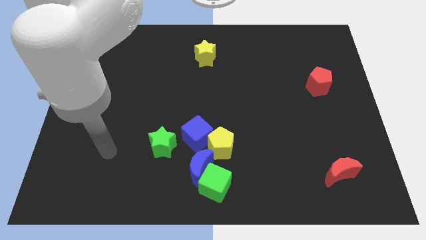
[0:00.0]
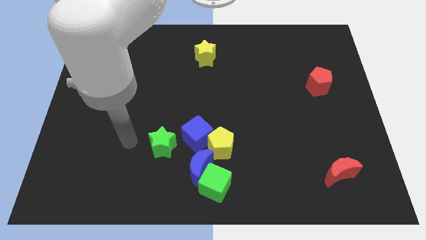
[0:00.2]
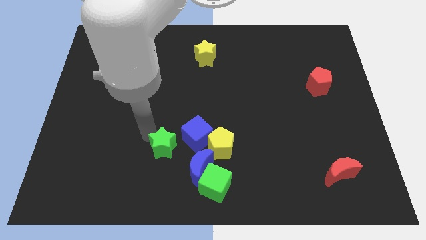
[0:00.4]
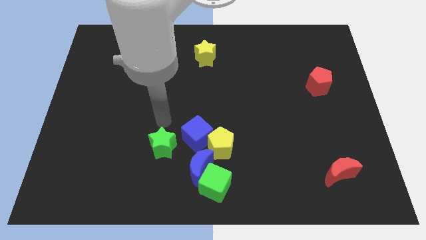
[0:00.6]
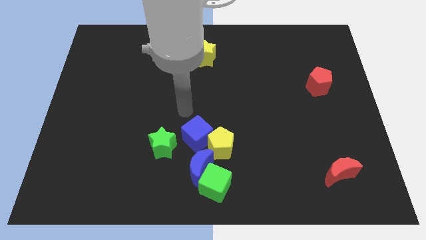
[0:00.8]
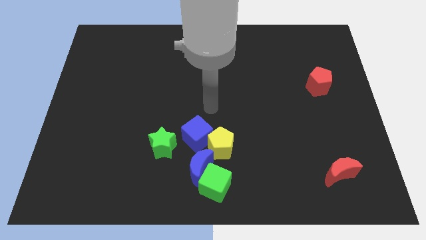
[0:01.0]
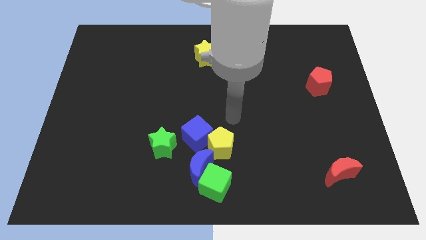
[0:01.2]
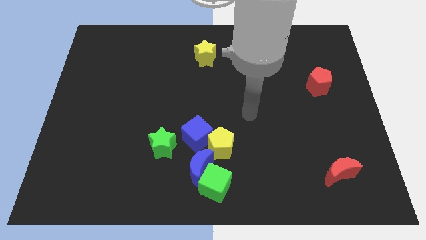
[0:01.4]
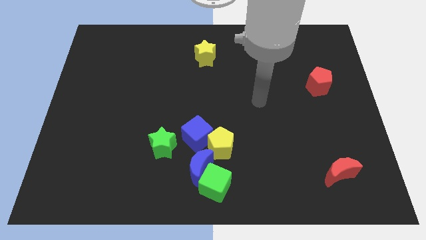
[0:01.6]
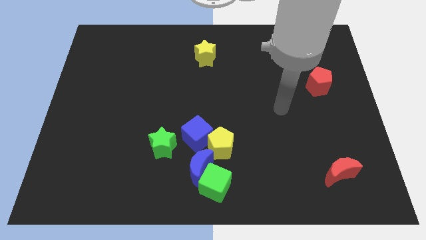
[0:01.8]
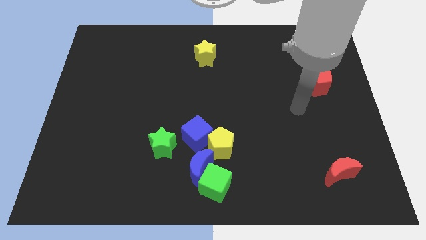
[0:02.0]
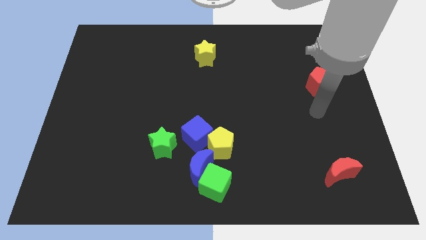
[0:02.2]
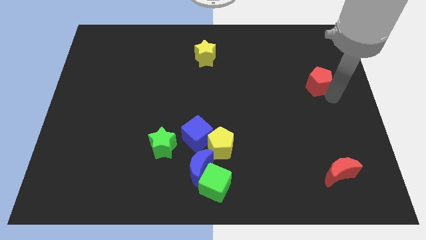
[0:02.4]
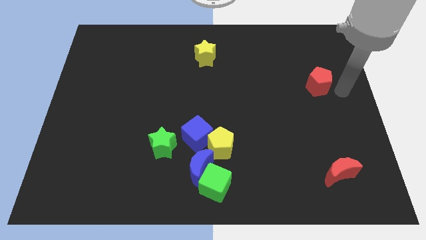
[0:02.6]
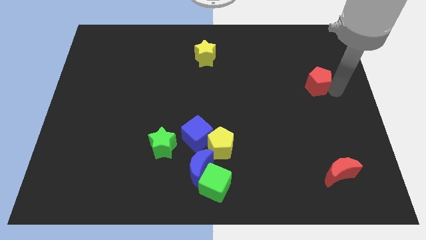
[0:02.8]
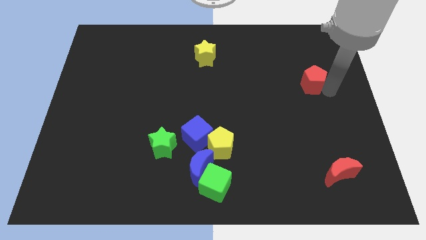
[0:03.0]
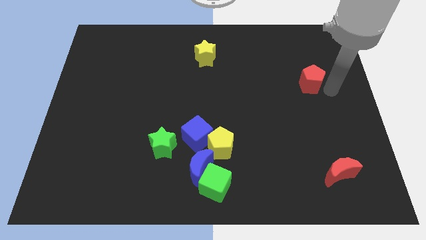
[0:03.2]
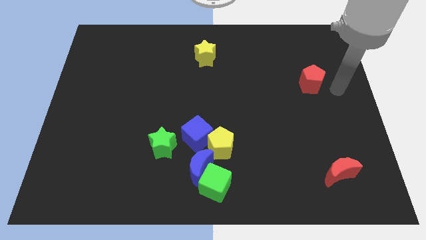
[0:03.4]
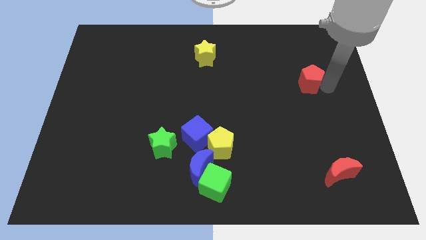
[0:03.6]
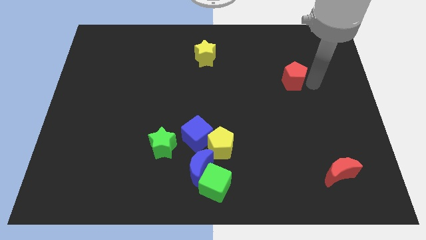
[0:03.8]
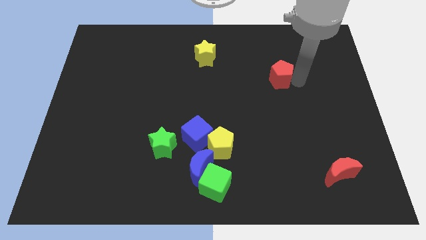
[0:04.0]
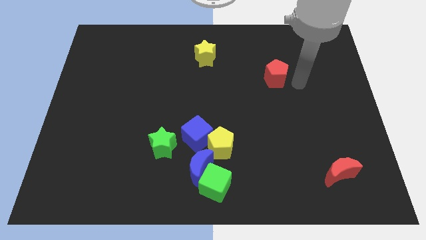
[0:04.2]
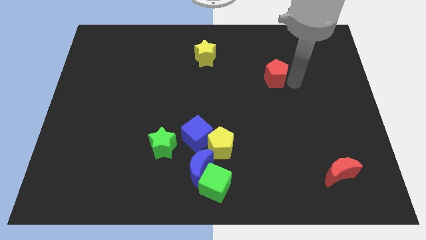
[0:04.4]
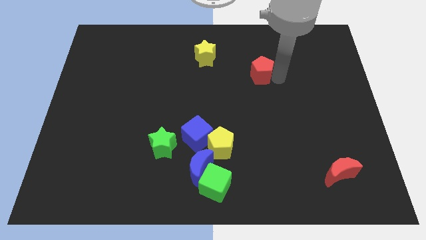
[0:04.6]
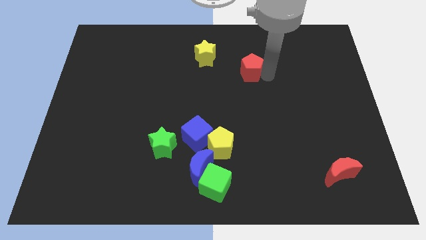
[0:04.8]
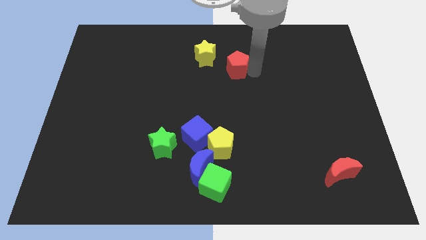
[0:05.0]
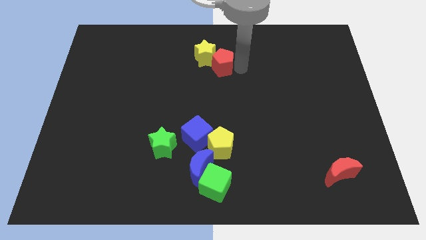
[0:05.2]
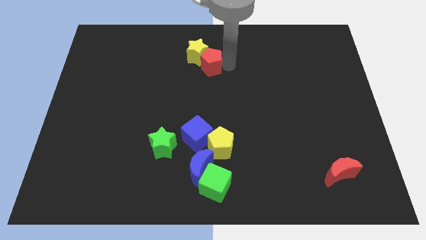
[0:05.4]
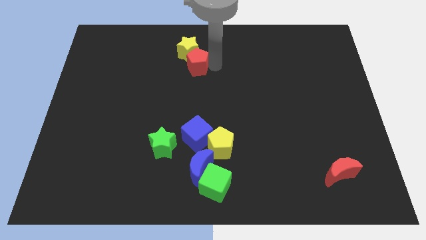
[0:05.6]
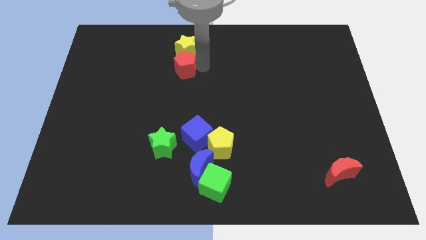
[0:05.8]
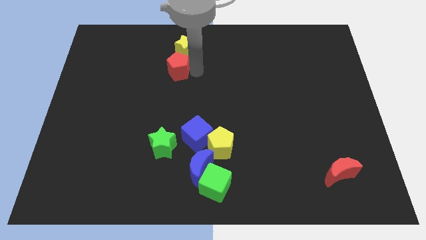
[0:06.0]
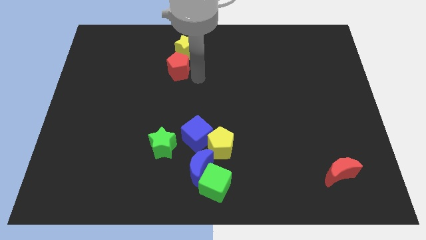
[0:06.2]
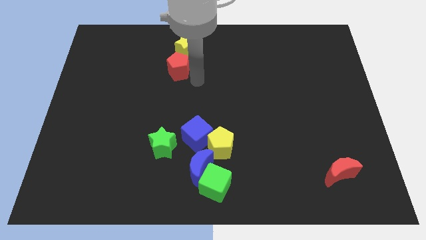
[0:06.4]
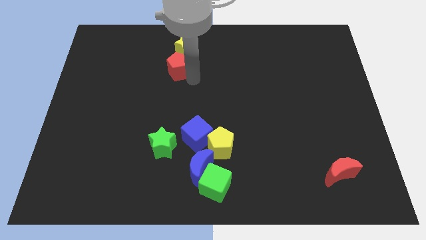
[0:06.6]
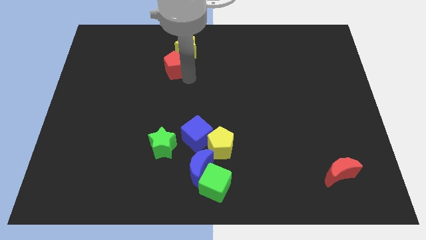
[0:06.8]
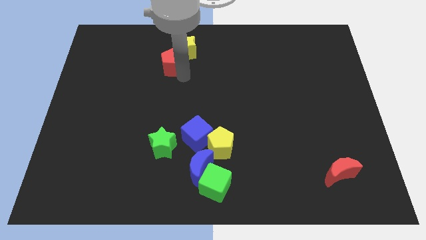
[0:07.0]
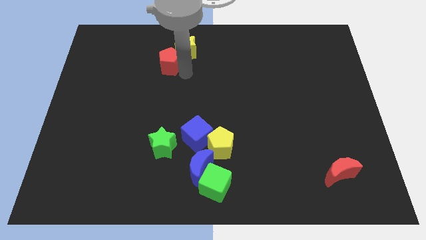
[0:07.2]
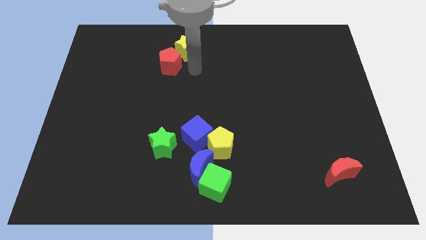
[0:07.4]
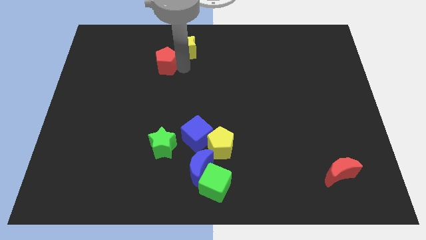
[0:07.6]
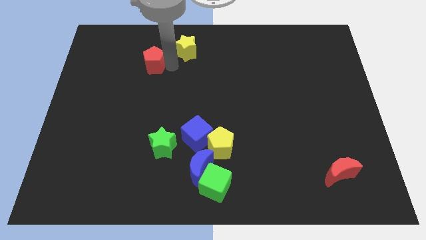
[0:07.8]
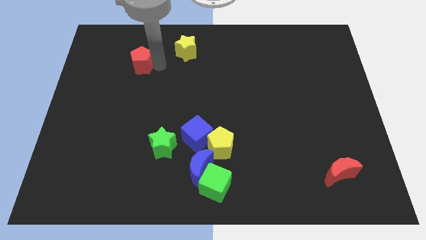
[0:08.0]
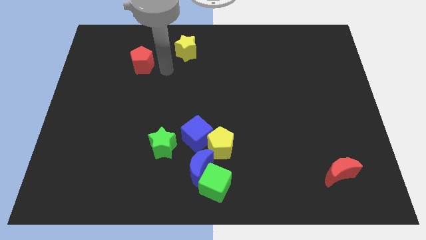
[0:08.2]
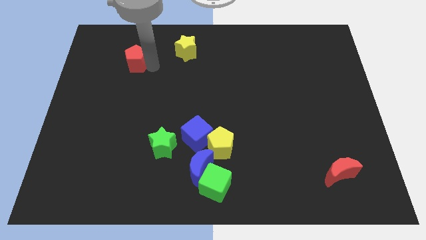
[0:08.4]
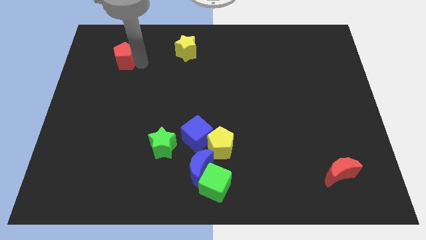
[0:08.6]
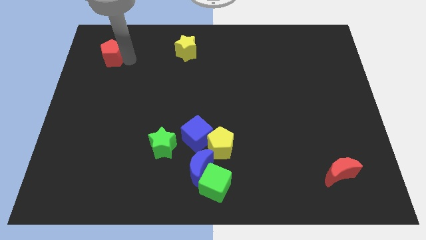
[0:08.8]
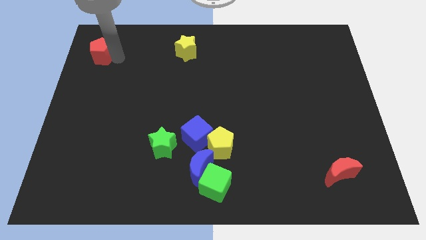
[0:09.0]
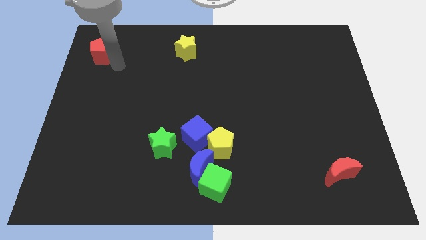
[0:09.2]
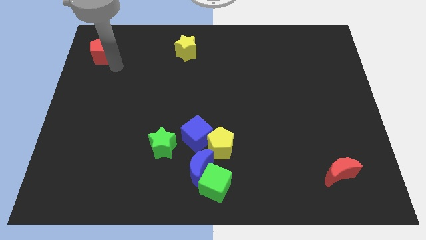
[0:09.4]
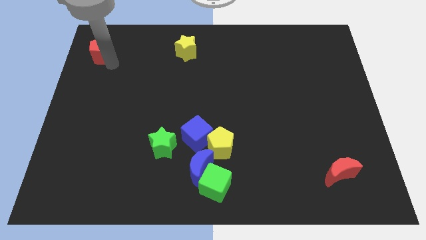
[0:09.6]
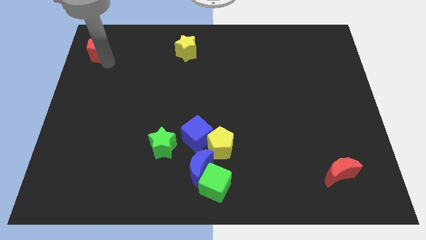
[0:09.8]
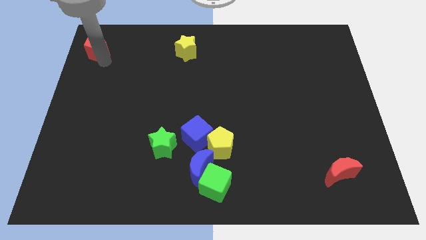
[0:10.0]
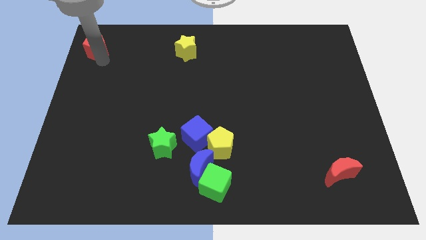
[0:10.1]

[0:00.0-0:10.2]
move the red pentagon to the top left

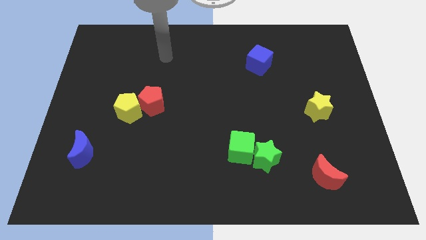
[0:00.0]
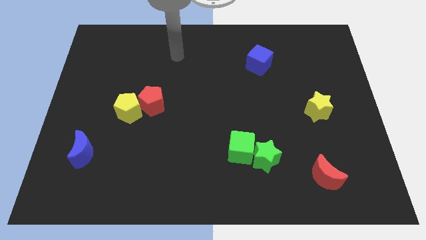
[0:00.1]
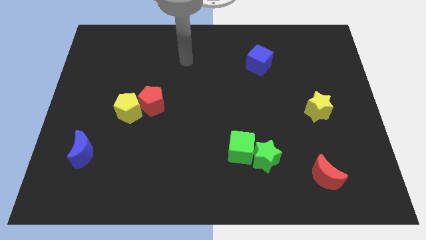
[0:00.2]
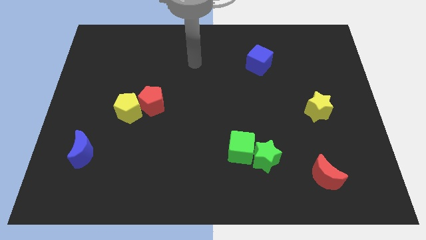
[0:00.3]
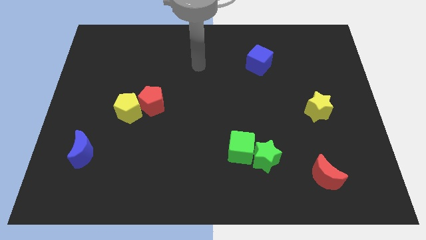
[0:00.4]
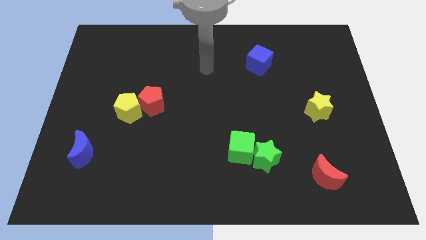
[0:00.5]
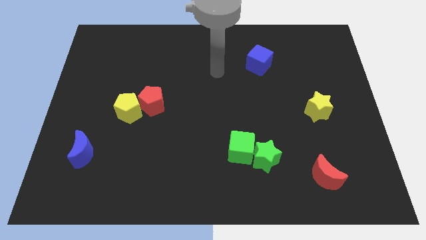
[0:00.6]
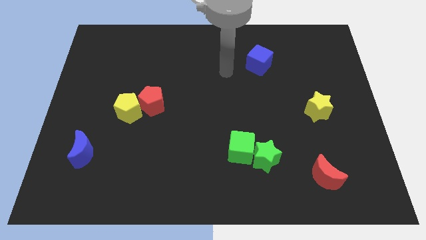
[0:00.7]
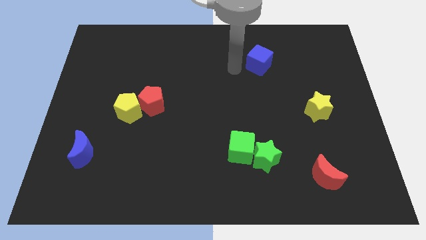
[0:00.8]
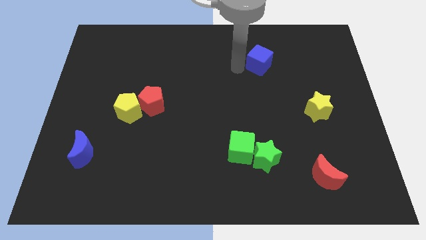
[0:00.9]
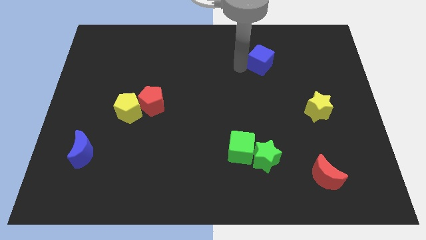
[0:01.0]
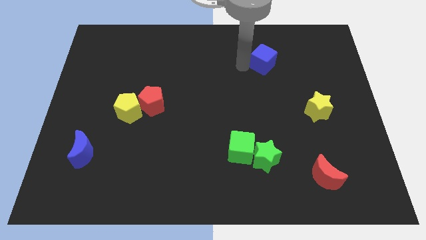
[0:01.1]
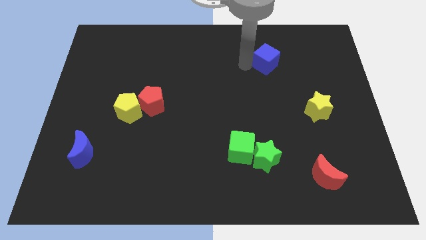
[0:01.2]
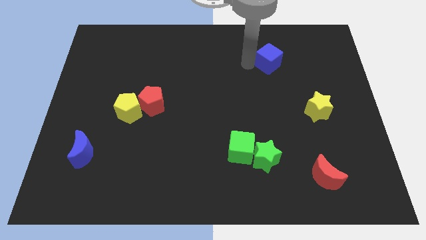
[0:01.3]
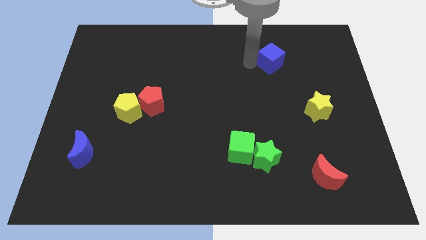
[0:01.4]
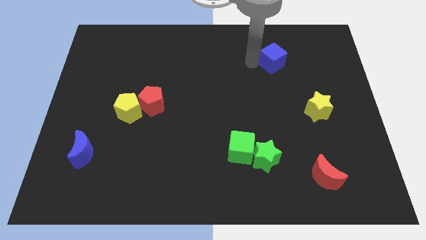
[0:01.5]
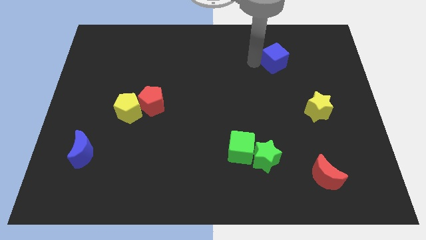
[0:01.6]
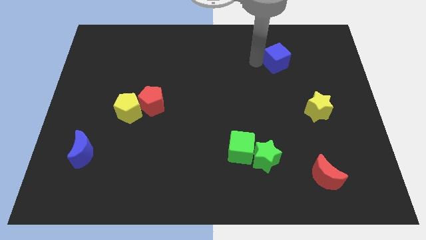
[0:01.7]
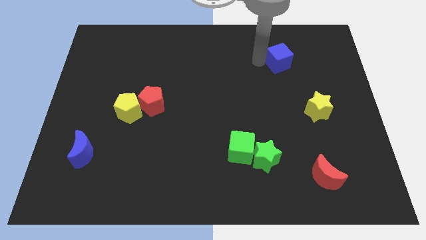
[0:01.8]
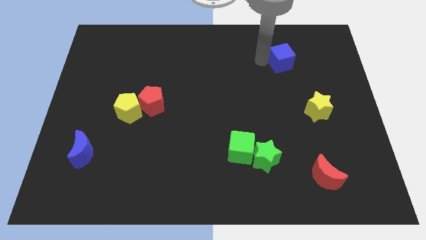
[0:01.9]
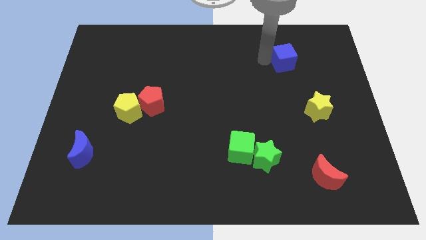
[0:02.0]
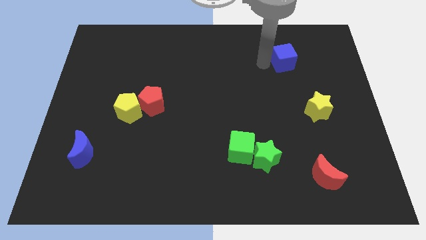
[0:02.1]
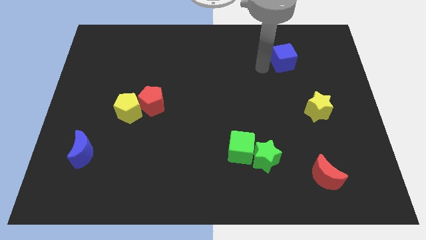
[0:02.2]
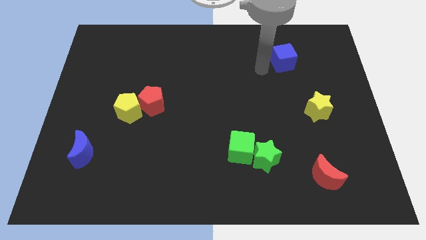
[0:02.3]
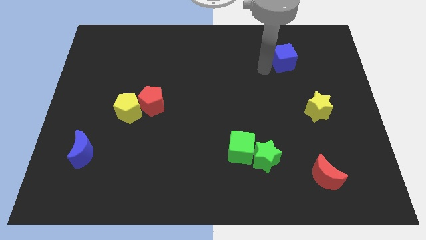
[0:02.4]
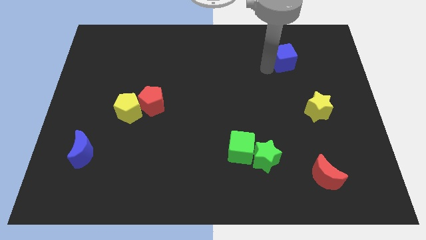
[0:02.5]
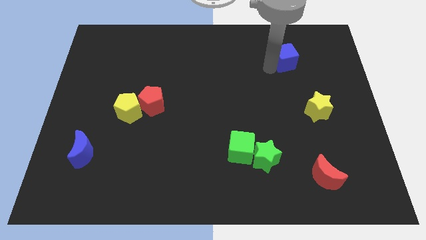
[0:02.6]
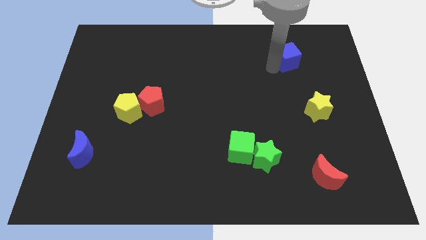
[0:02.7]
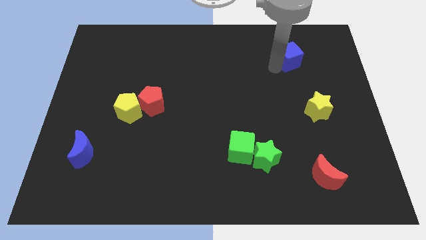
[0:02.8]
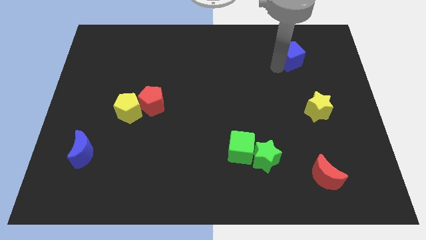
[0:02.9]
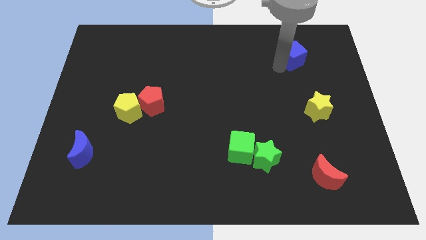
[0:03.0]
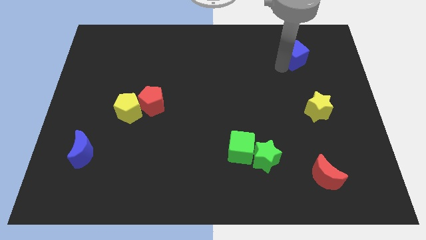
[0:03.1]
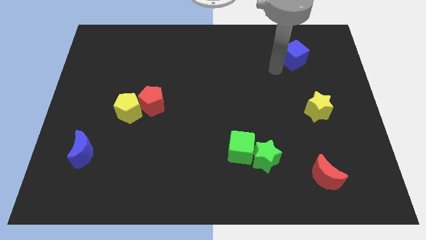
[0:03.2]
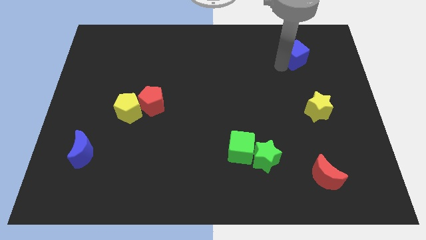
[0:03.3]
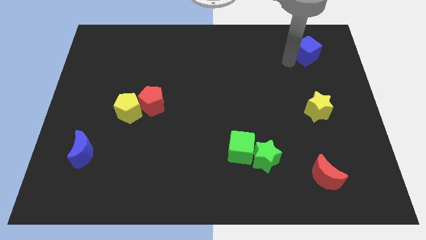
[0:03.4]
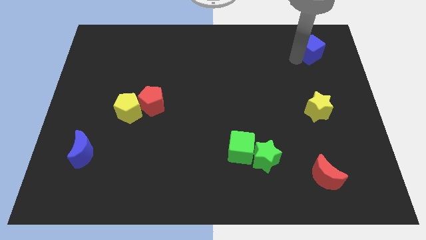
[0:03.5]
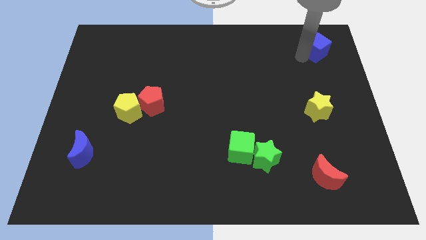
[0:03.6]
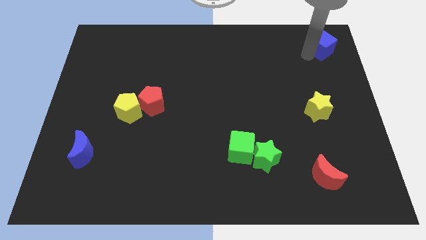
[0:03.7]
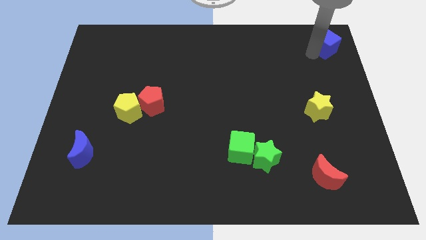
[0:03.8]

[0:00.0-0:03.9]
slide the blue cube to the top right of the board
